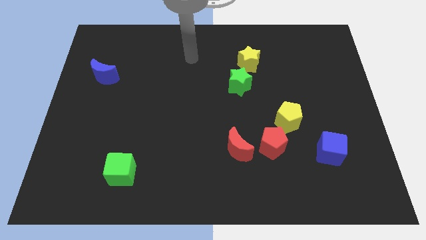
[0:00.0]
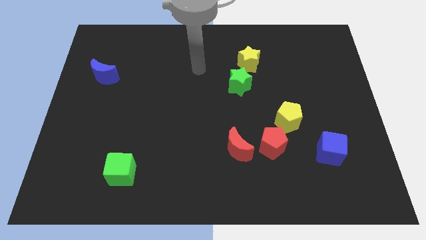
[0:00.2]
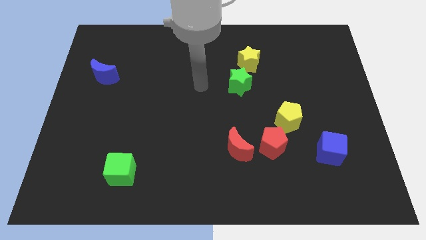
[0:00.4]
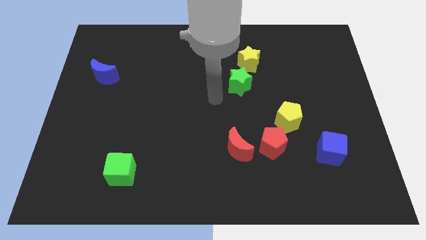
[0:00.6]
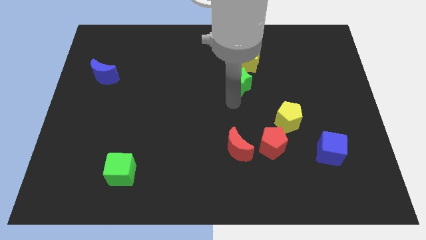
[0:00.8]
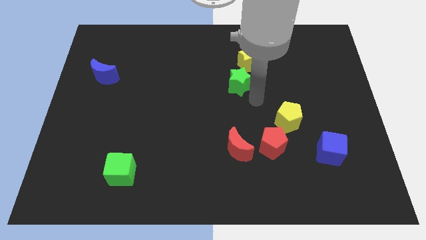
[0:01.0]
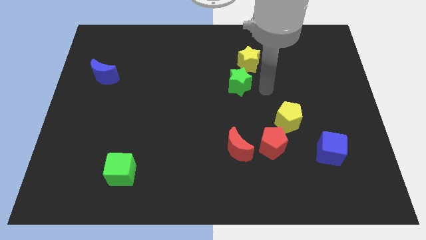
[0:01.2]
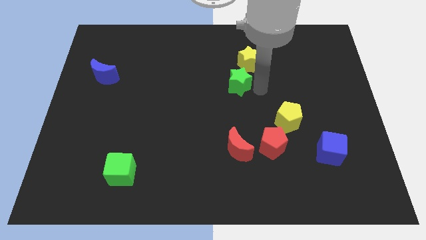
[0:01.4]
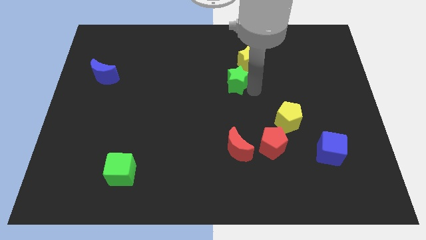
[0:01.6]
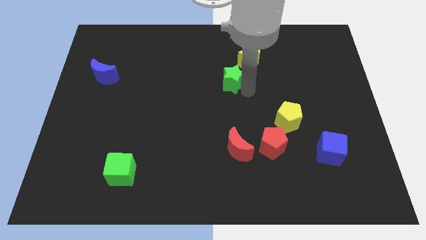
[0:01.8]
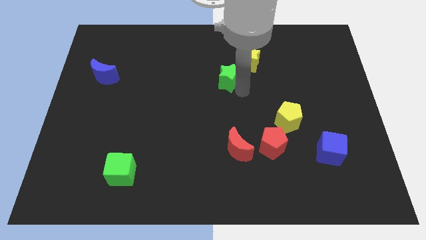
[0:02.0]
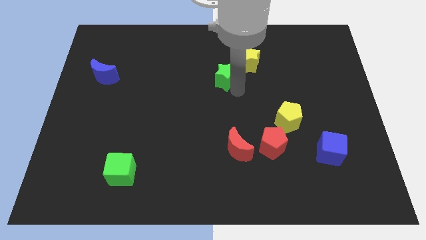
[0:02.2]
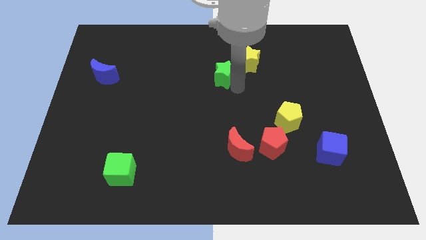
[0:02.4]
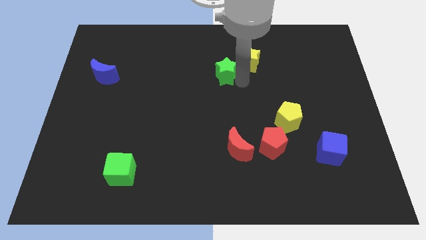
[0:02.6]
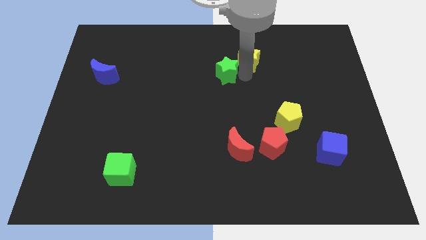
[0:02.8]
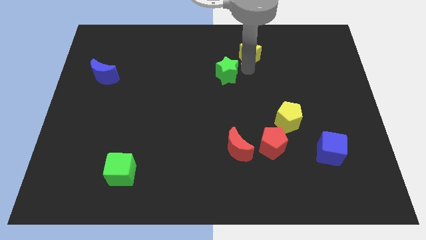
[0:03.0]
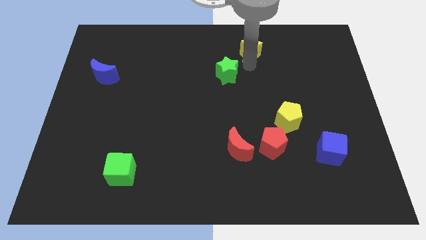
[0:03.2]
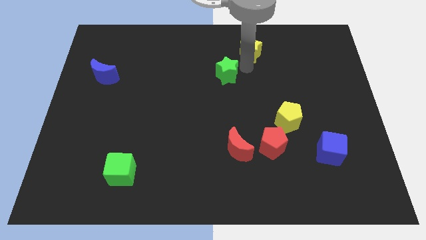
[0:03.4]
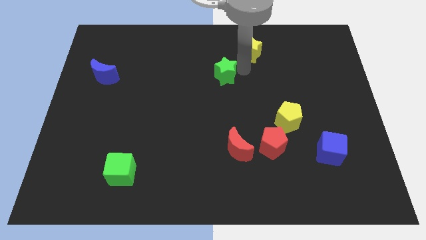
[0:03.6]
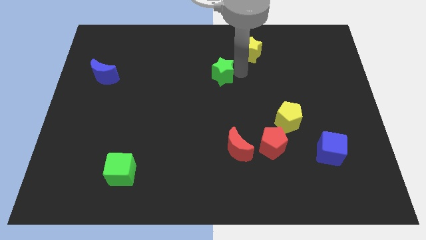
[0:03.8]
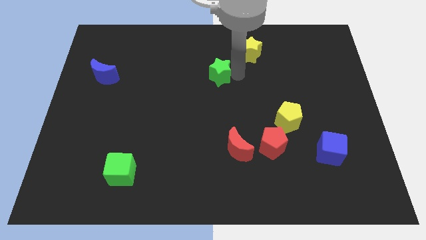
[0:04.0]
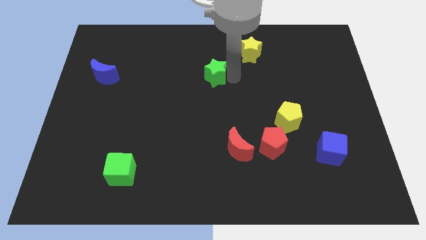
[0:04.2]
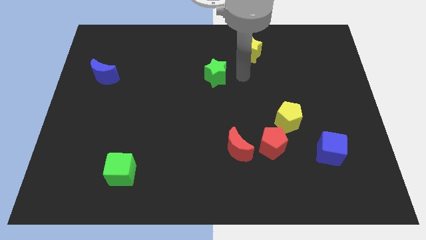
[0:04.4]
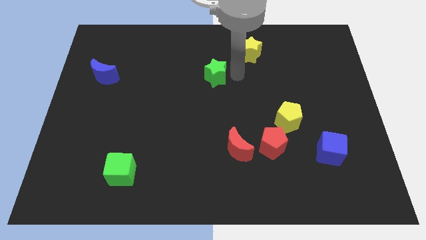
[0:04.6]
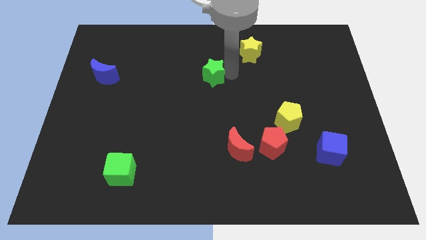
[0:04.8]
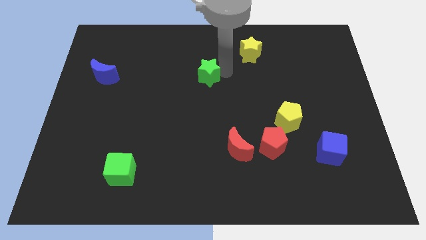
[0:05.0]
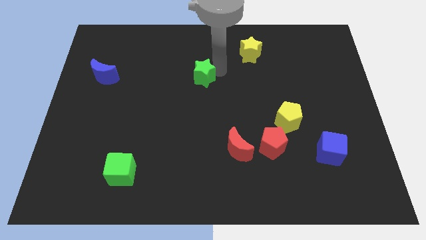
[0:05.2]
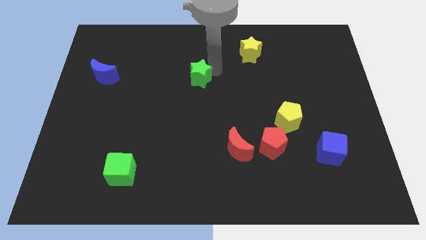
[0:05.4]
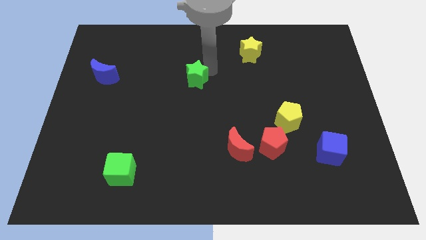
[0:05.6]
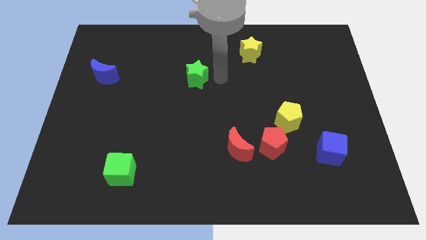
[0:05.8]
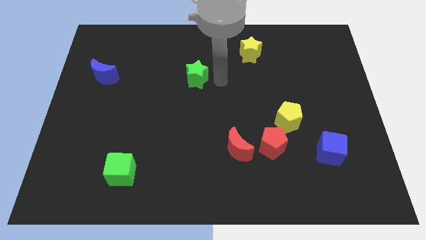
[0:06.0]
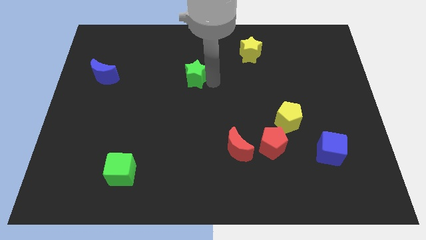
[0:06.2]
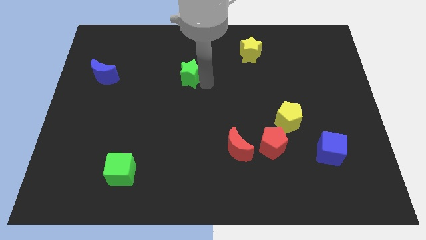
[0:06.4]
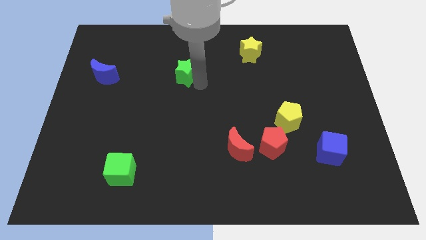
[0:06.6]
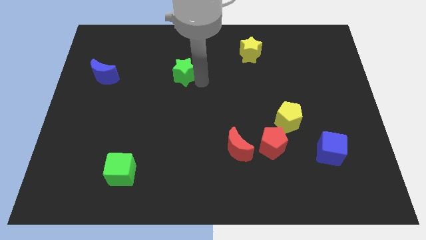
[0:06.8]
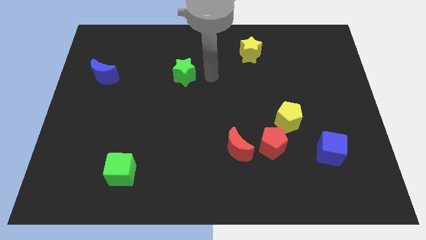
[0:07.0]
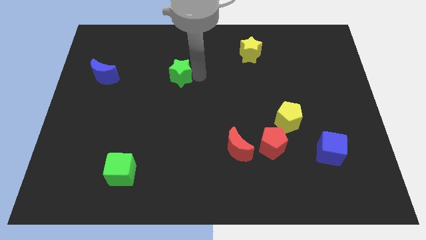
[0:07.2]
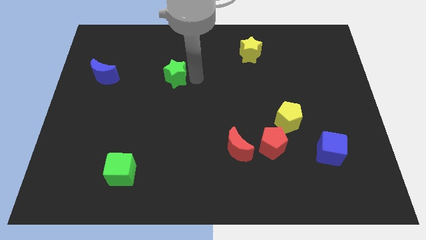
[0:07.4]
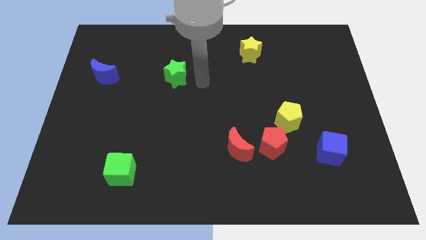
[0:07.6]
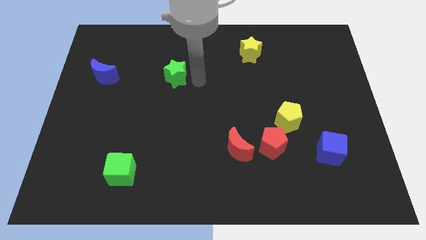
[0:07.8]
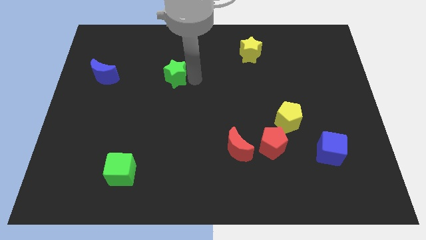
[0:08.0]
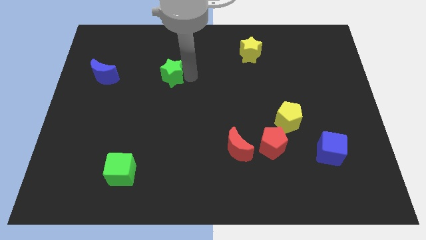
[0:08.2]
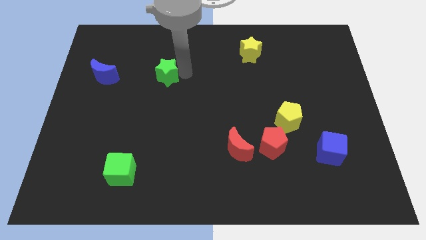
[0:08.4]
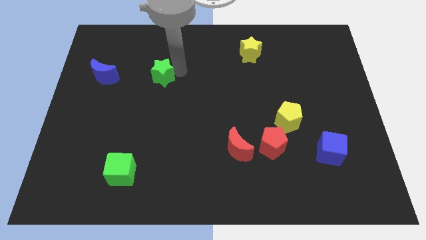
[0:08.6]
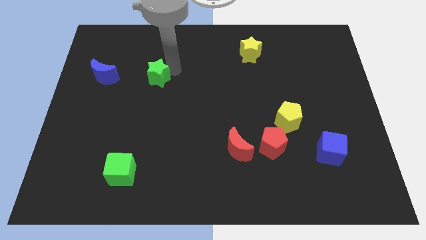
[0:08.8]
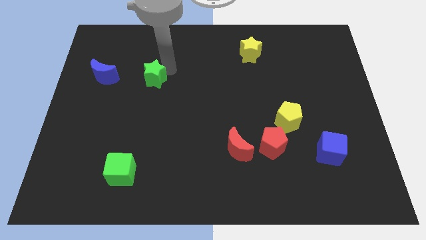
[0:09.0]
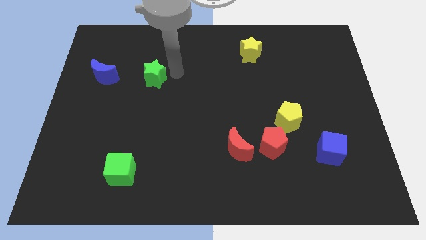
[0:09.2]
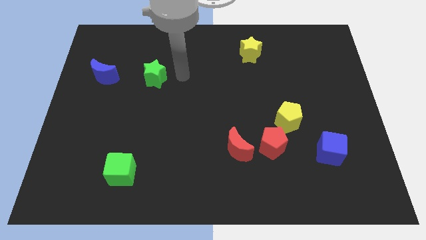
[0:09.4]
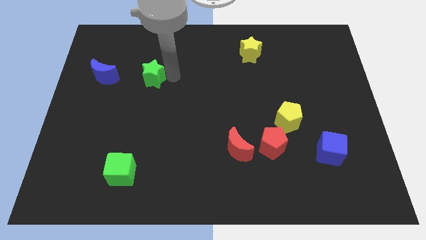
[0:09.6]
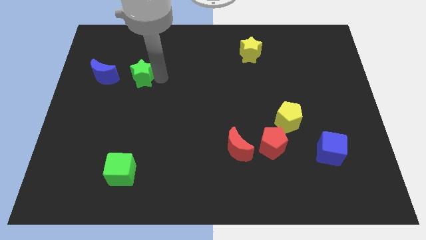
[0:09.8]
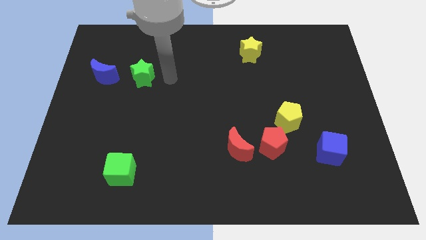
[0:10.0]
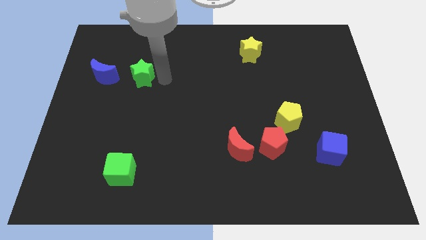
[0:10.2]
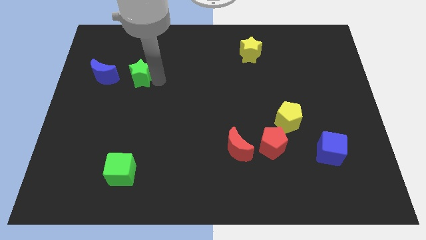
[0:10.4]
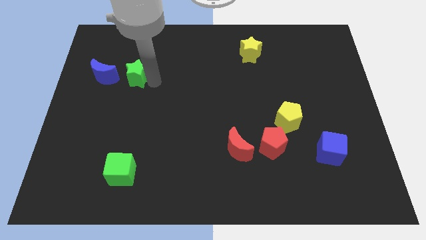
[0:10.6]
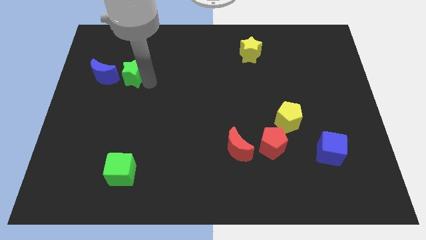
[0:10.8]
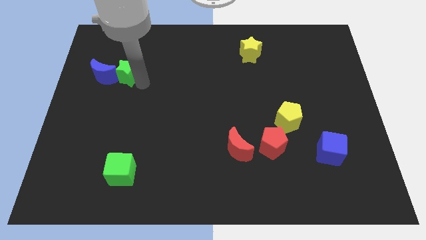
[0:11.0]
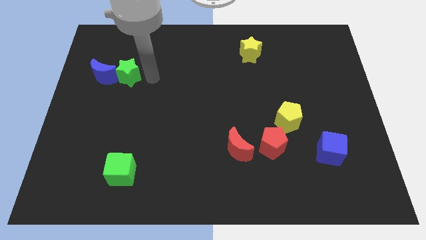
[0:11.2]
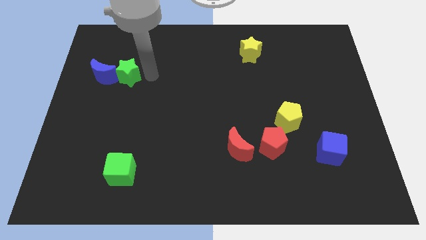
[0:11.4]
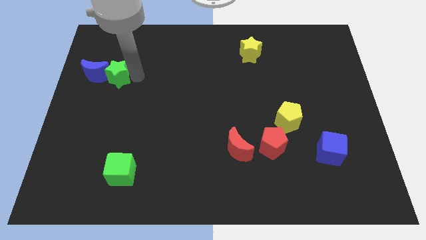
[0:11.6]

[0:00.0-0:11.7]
put the green star to the blue moon

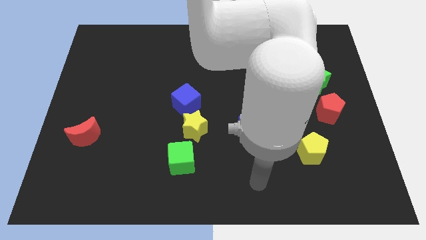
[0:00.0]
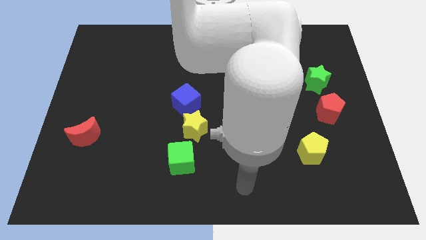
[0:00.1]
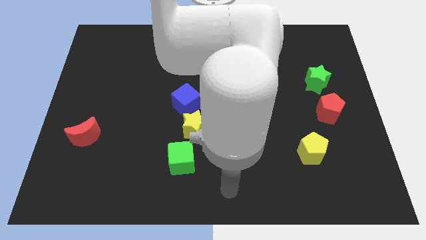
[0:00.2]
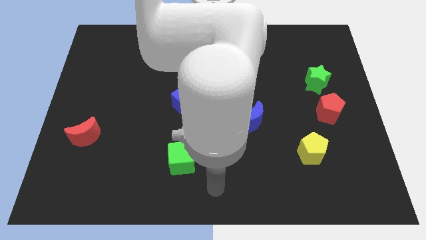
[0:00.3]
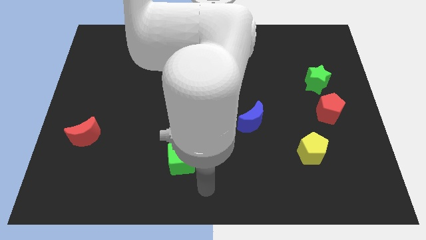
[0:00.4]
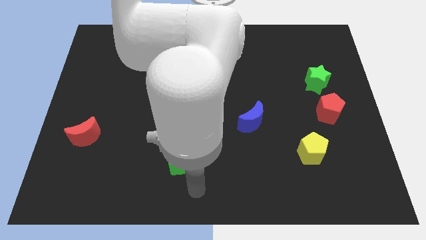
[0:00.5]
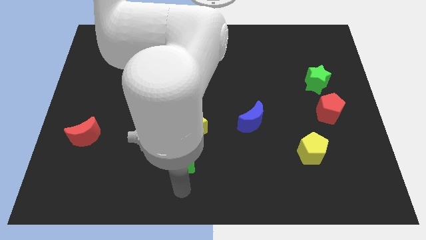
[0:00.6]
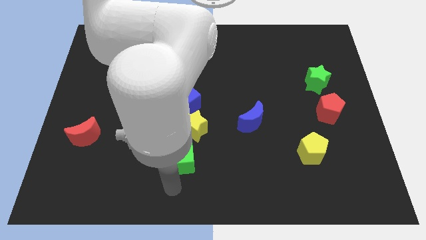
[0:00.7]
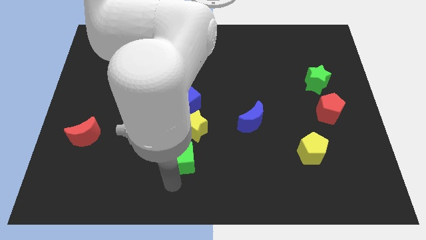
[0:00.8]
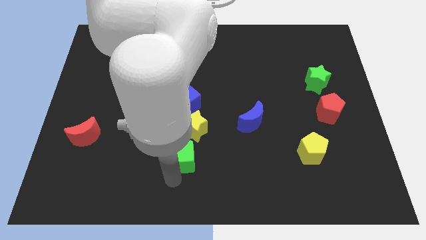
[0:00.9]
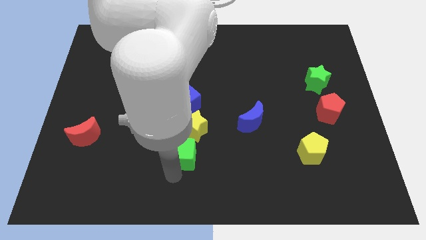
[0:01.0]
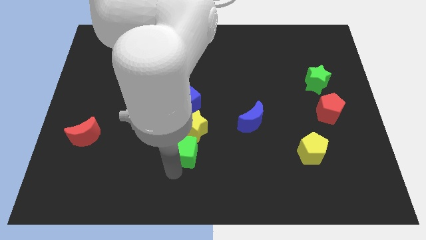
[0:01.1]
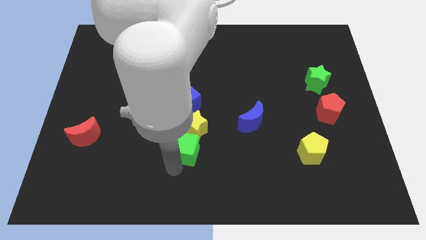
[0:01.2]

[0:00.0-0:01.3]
push the green cube next to the yellow star
